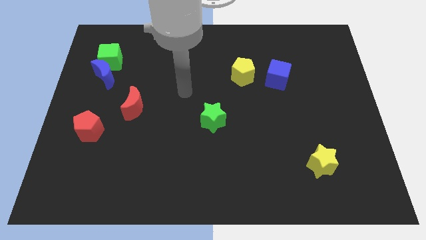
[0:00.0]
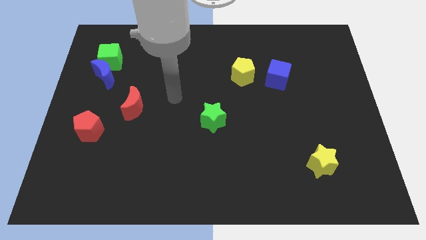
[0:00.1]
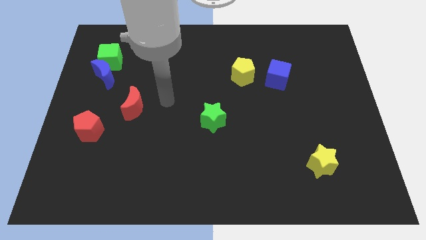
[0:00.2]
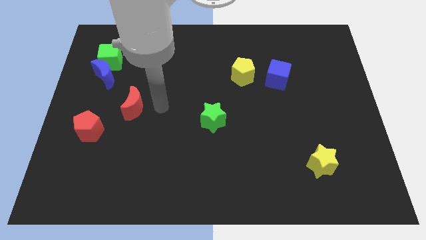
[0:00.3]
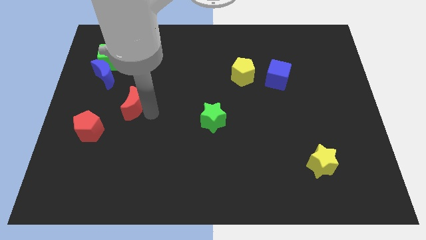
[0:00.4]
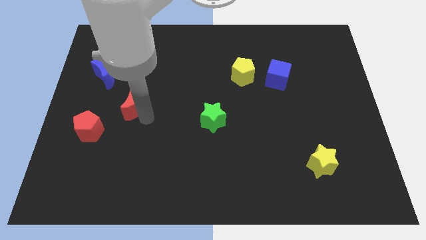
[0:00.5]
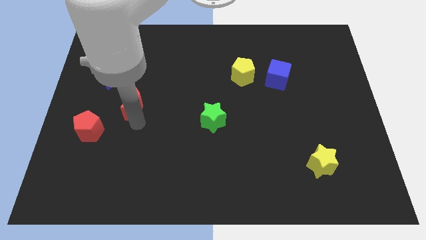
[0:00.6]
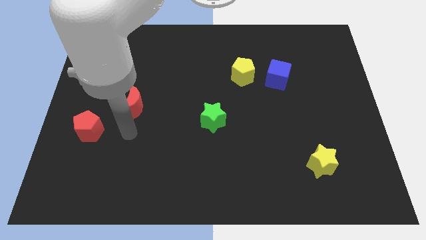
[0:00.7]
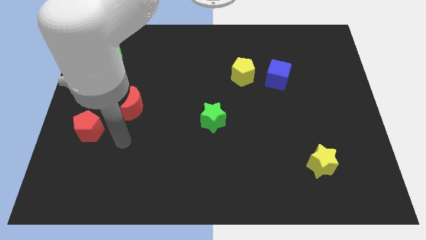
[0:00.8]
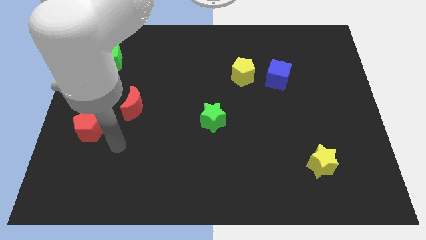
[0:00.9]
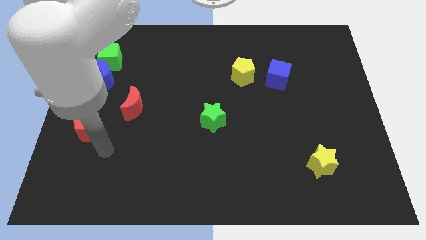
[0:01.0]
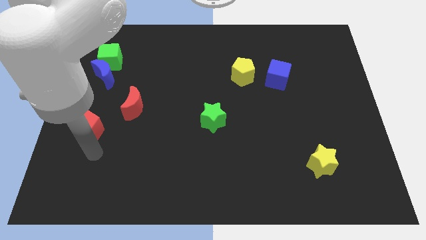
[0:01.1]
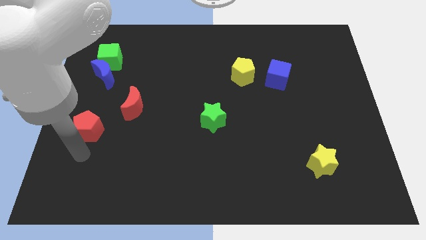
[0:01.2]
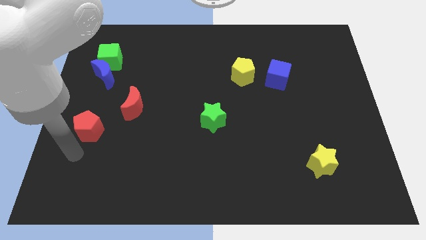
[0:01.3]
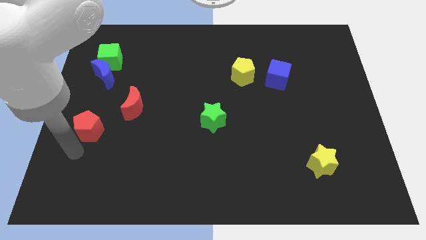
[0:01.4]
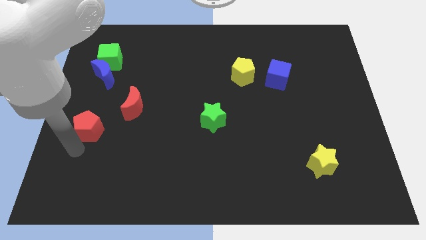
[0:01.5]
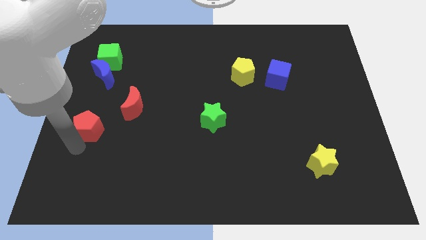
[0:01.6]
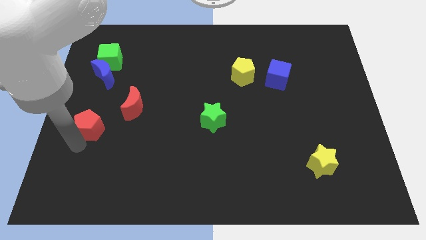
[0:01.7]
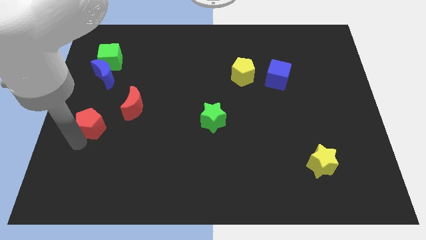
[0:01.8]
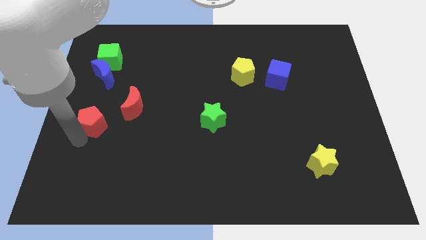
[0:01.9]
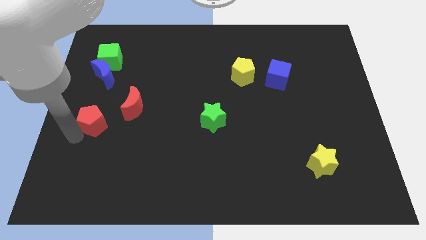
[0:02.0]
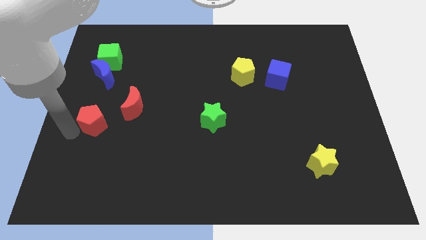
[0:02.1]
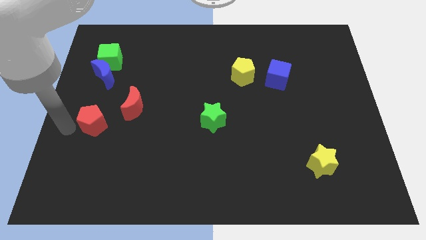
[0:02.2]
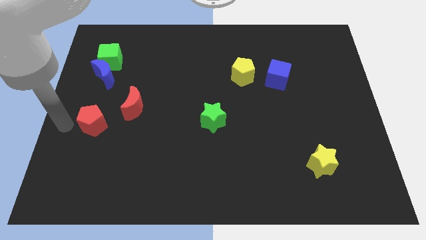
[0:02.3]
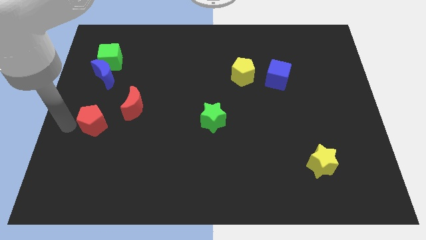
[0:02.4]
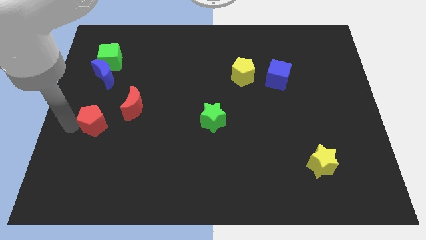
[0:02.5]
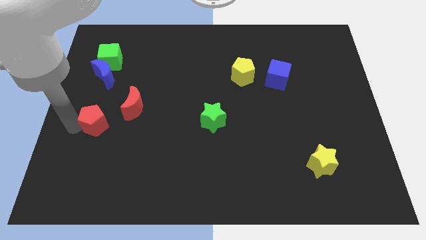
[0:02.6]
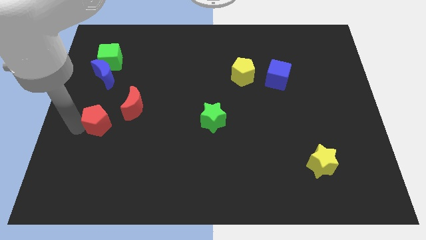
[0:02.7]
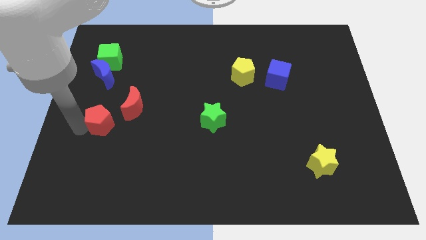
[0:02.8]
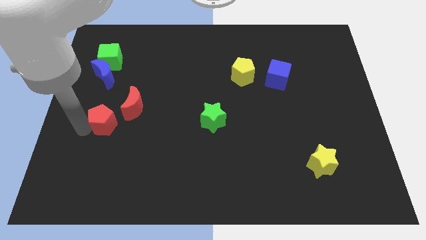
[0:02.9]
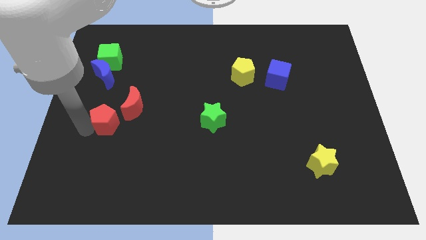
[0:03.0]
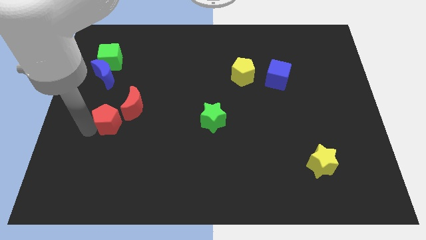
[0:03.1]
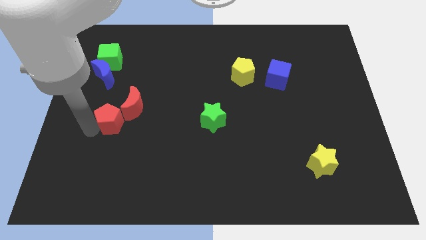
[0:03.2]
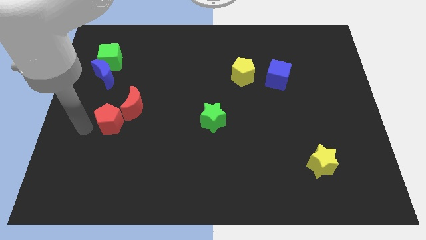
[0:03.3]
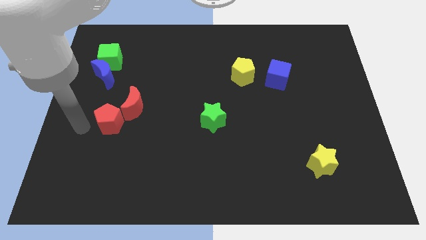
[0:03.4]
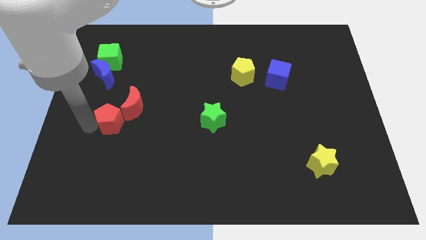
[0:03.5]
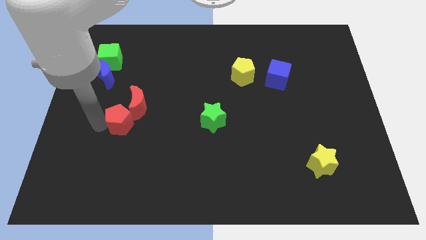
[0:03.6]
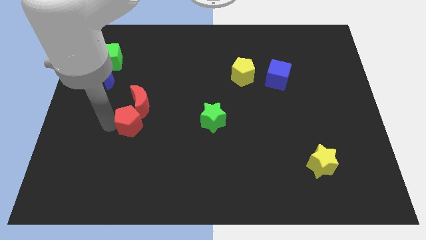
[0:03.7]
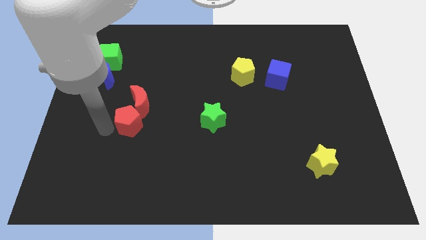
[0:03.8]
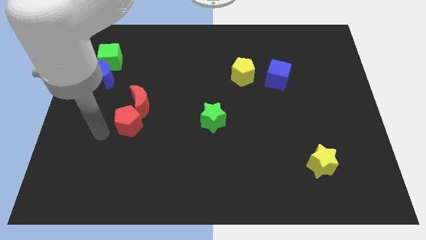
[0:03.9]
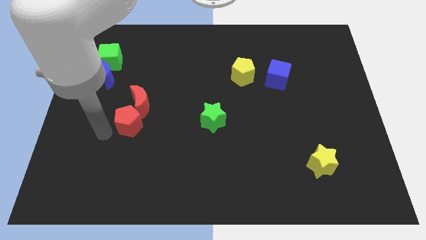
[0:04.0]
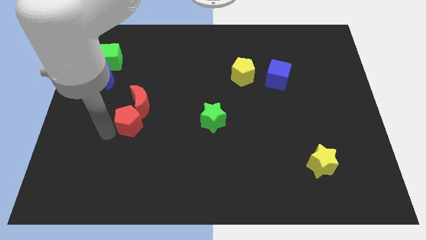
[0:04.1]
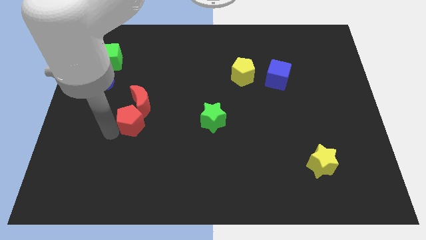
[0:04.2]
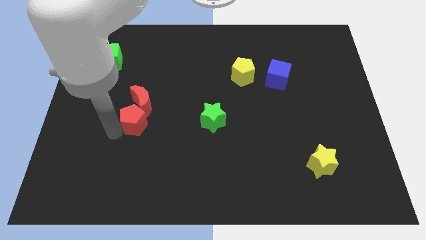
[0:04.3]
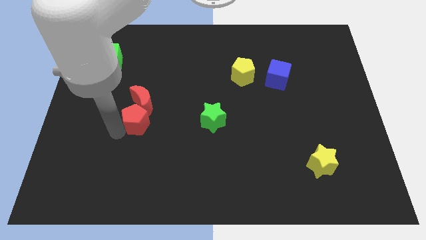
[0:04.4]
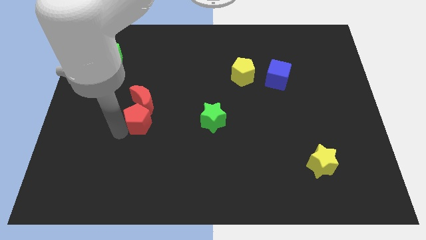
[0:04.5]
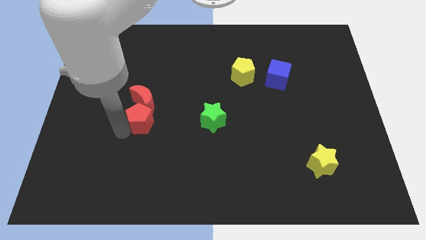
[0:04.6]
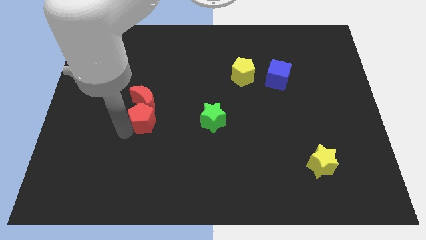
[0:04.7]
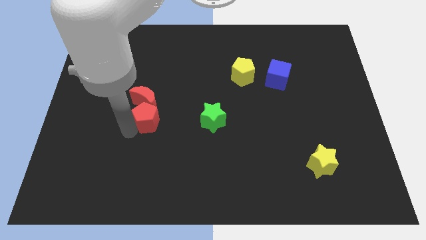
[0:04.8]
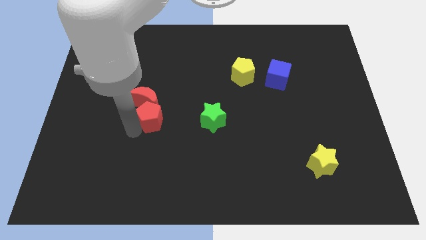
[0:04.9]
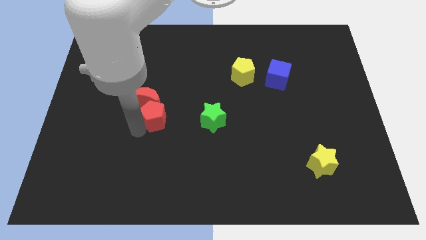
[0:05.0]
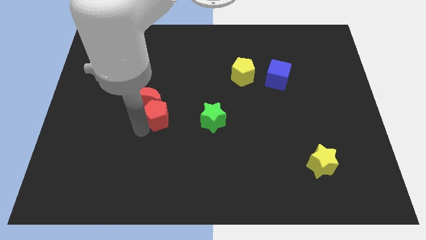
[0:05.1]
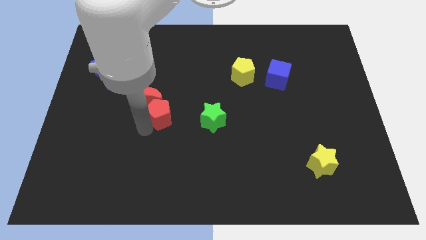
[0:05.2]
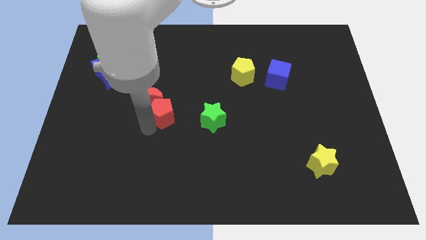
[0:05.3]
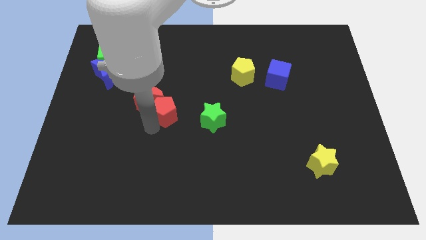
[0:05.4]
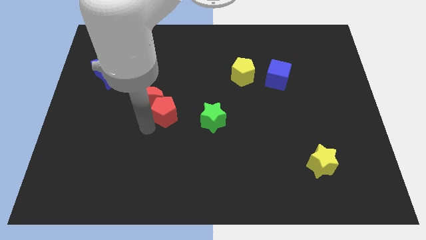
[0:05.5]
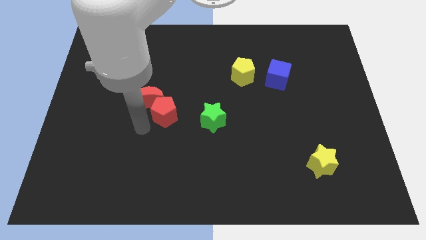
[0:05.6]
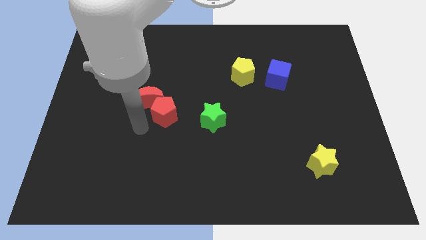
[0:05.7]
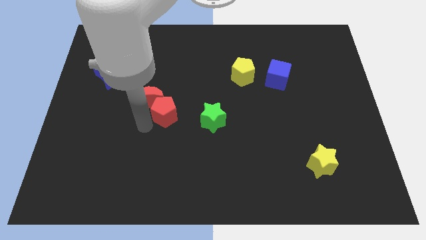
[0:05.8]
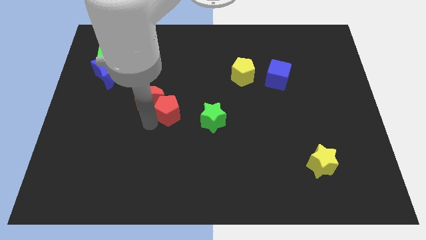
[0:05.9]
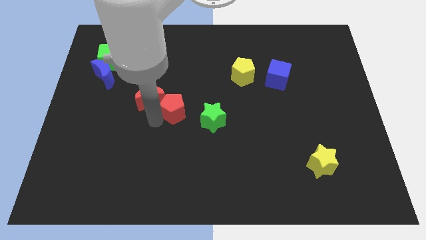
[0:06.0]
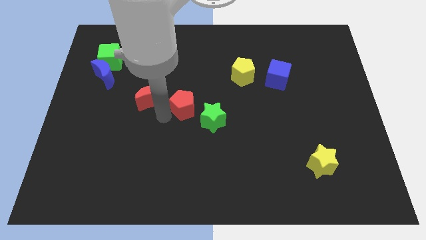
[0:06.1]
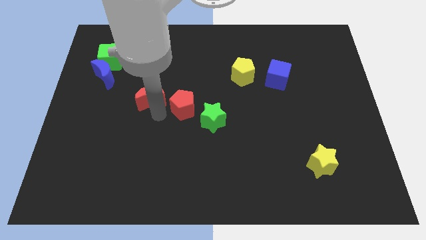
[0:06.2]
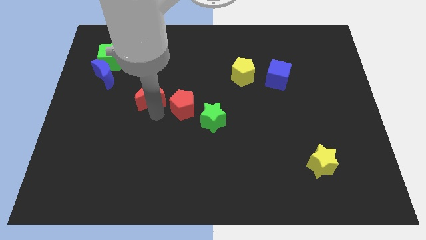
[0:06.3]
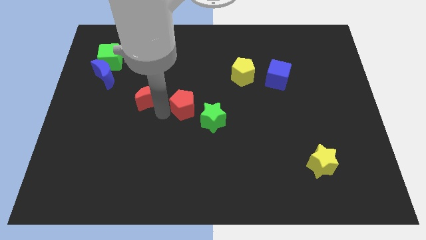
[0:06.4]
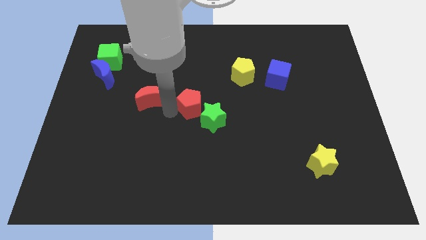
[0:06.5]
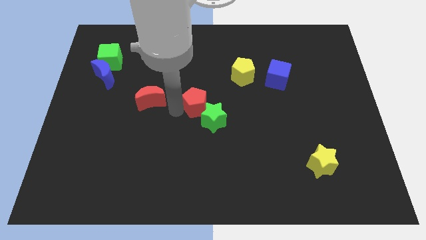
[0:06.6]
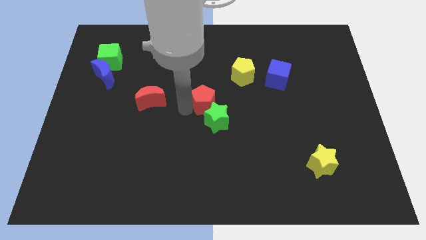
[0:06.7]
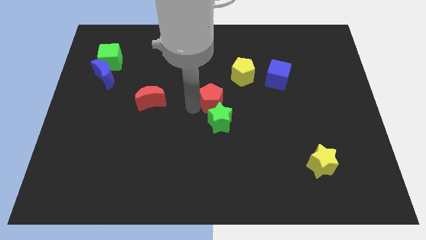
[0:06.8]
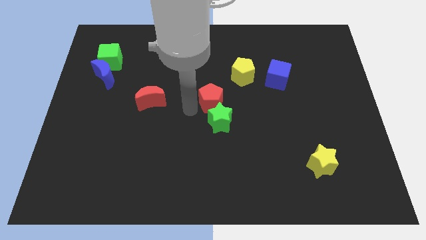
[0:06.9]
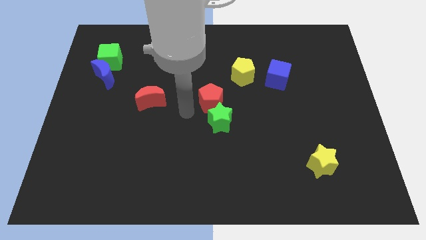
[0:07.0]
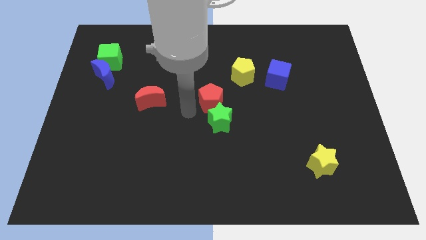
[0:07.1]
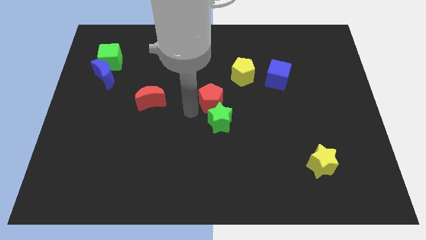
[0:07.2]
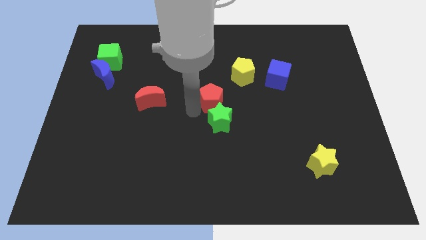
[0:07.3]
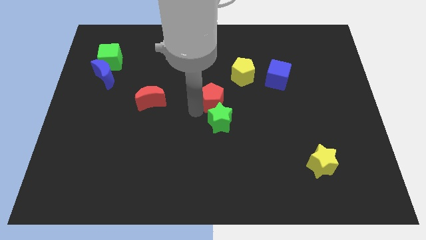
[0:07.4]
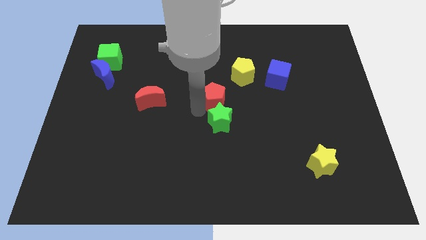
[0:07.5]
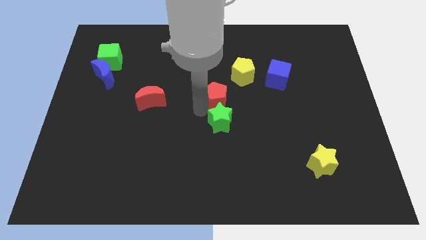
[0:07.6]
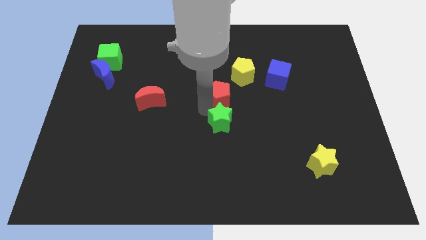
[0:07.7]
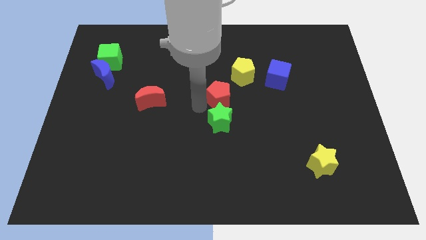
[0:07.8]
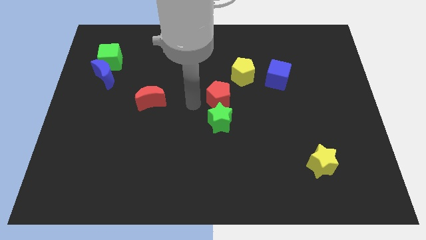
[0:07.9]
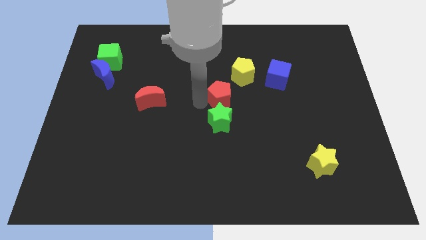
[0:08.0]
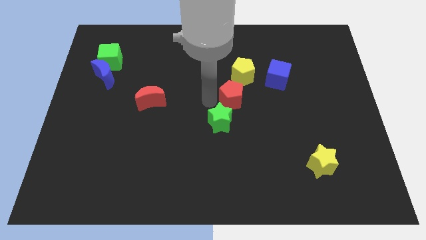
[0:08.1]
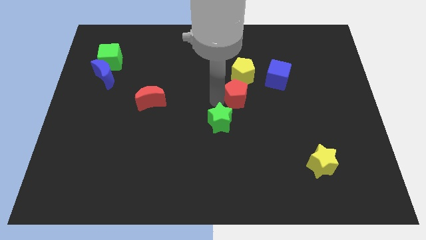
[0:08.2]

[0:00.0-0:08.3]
move the red pentagon to the bottom left side of the blue cube
